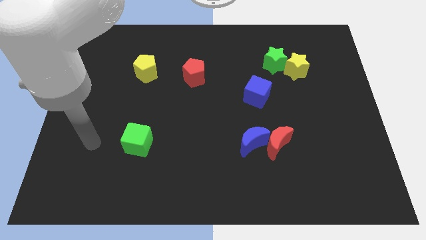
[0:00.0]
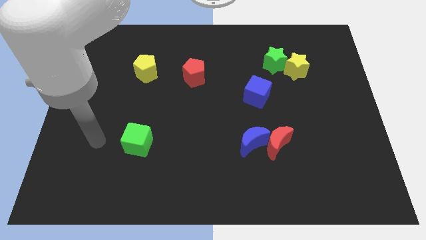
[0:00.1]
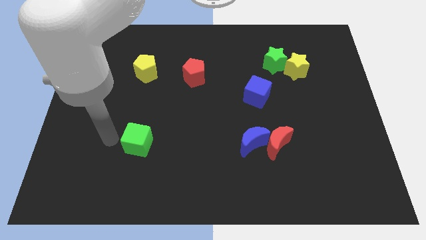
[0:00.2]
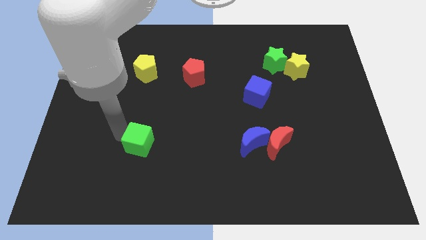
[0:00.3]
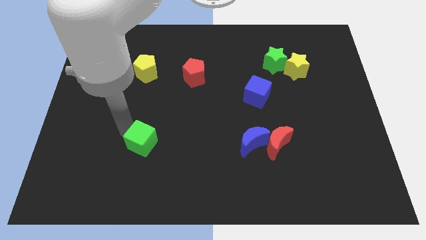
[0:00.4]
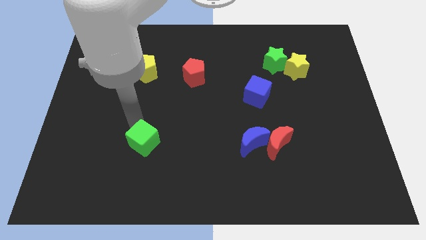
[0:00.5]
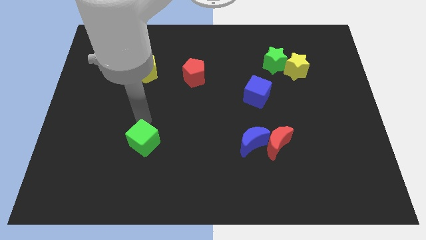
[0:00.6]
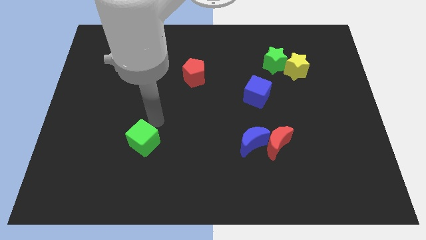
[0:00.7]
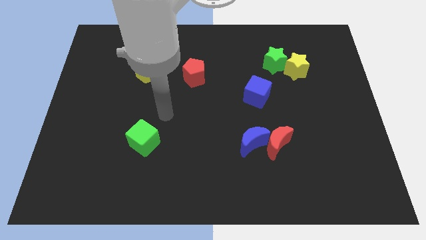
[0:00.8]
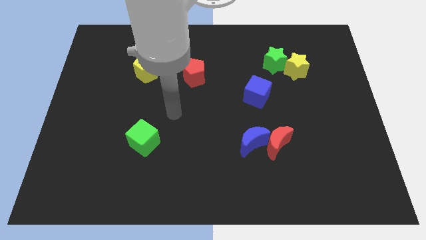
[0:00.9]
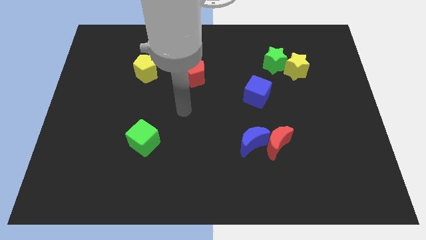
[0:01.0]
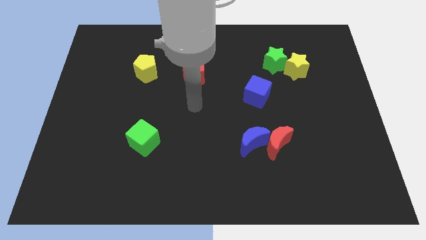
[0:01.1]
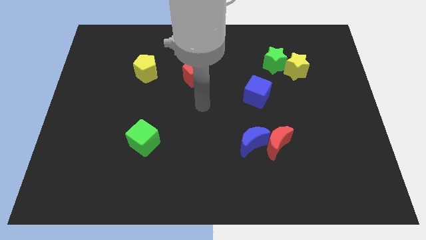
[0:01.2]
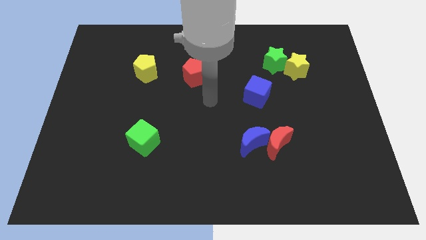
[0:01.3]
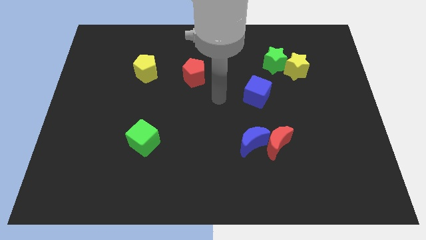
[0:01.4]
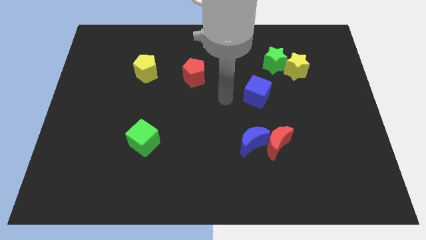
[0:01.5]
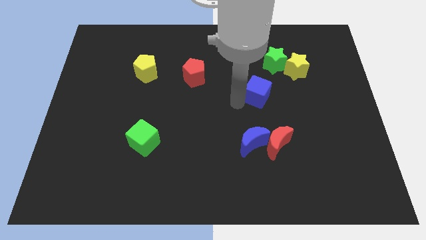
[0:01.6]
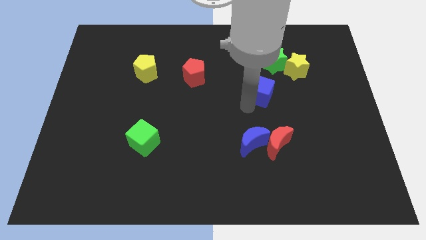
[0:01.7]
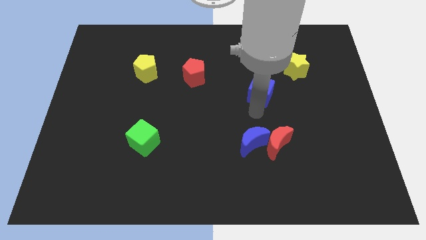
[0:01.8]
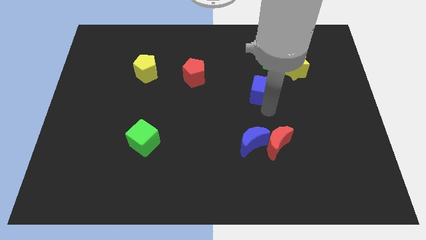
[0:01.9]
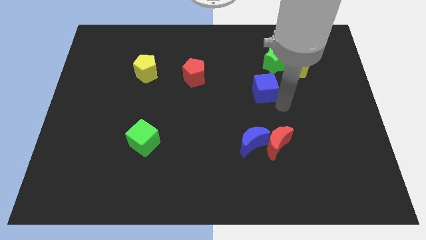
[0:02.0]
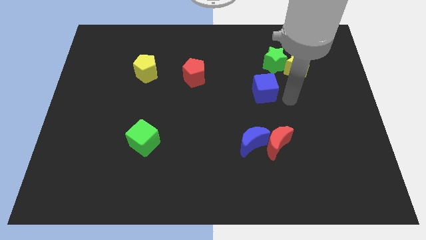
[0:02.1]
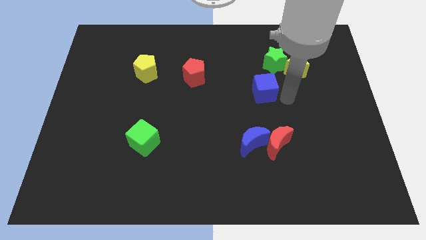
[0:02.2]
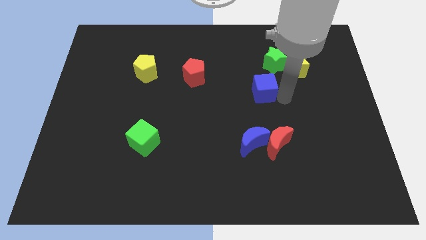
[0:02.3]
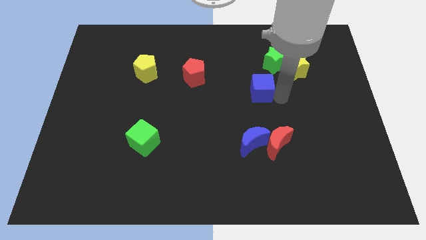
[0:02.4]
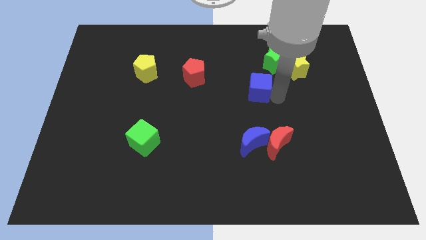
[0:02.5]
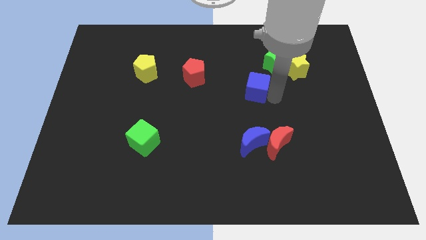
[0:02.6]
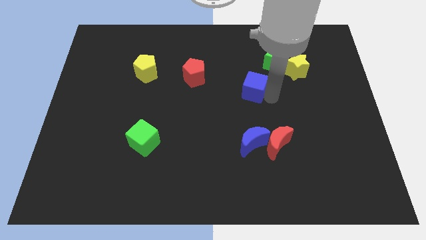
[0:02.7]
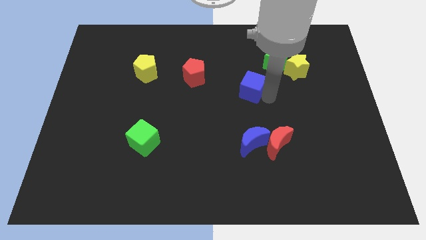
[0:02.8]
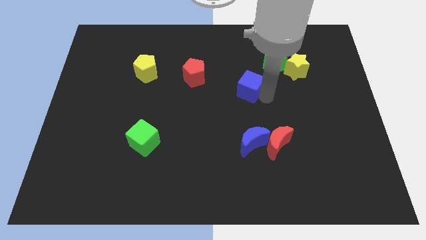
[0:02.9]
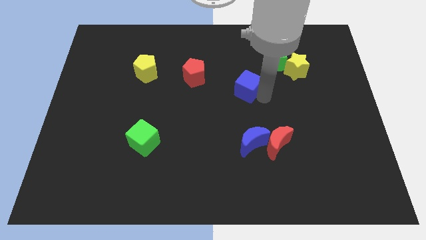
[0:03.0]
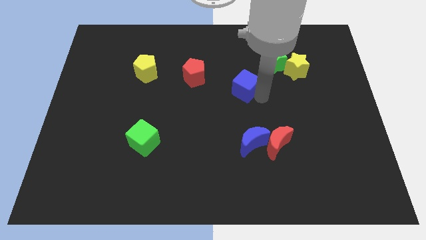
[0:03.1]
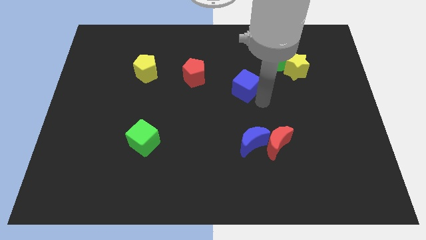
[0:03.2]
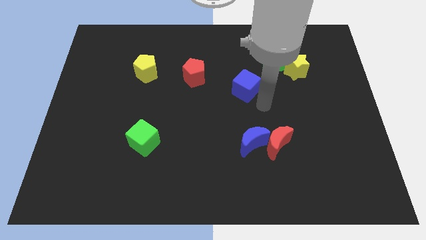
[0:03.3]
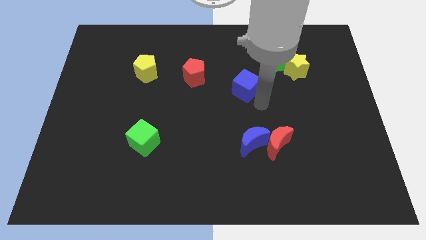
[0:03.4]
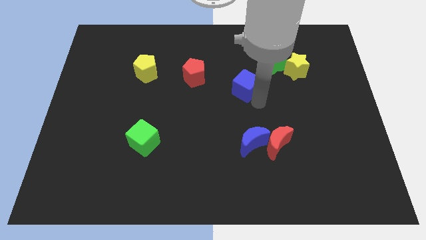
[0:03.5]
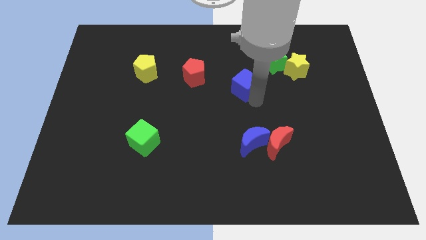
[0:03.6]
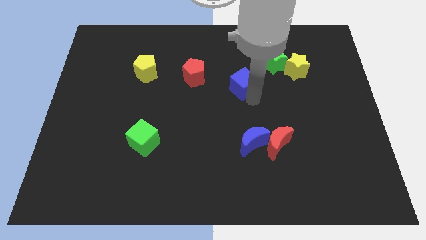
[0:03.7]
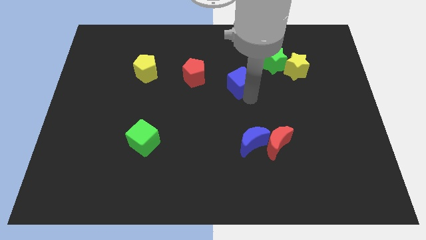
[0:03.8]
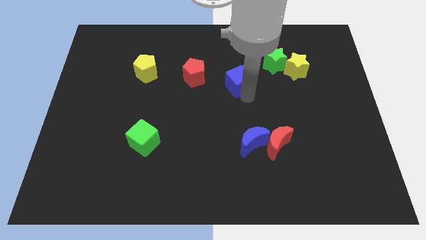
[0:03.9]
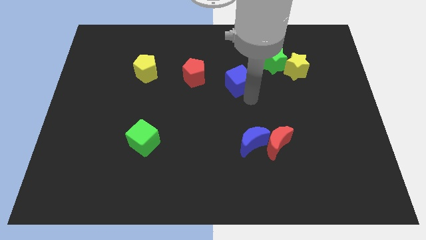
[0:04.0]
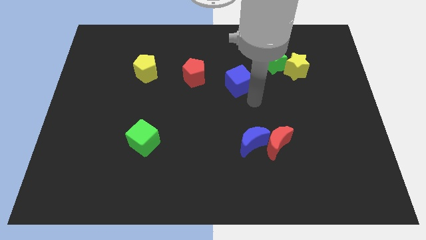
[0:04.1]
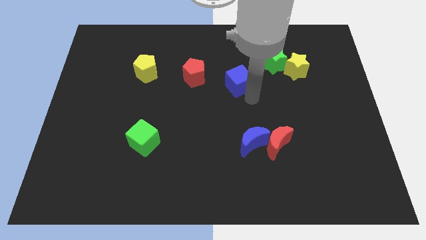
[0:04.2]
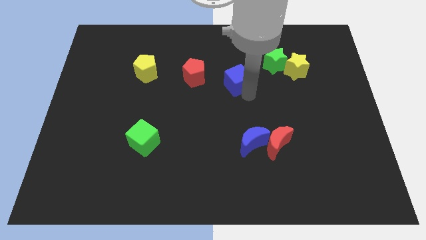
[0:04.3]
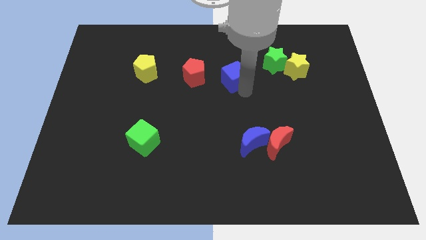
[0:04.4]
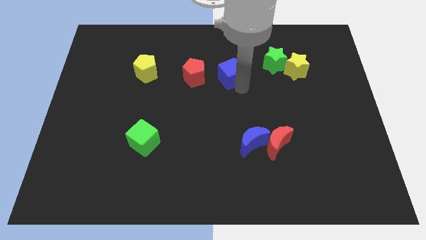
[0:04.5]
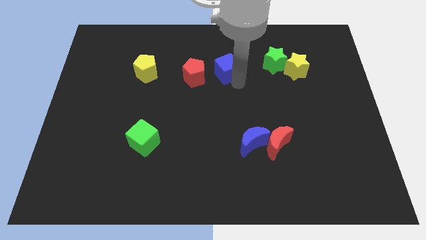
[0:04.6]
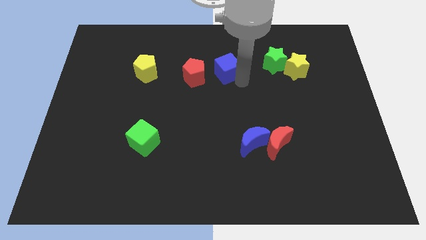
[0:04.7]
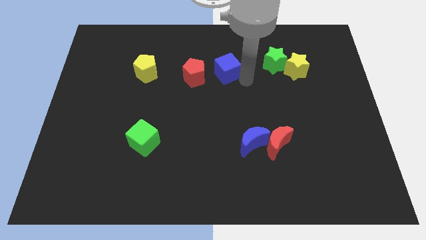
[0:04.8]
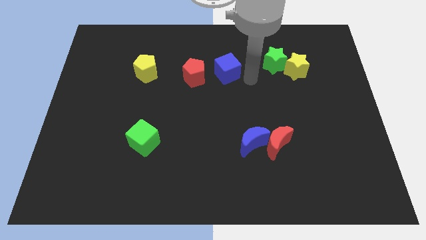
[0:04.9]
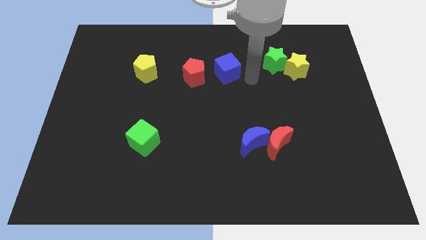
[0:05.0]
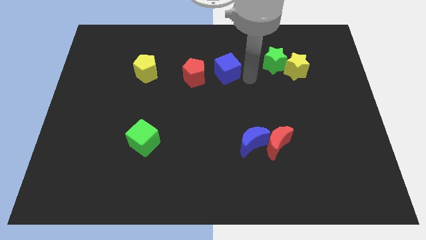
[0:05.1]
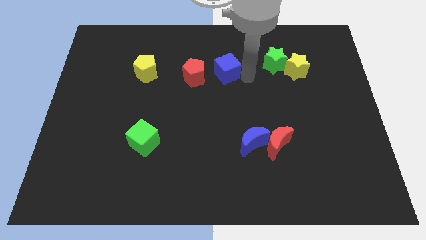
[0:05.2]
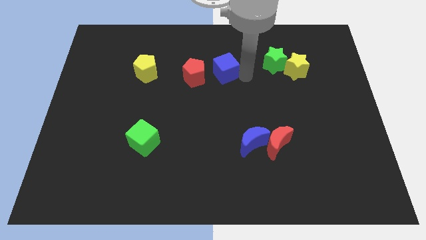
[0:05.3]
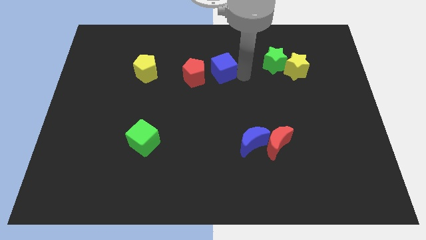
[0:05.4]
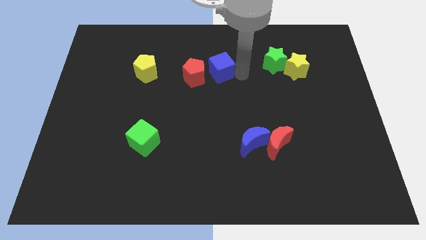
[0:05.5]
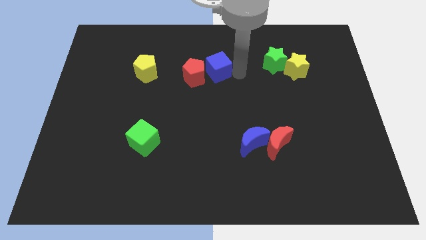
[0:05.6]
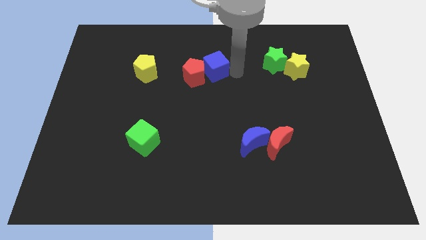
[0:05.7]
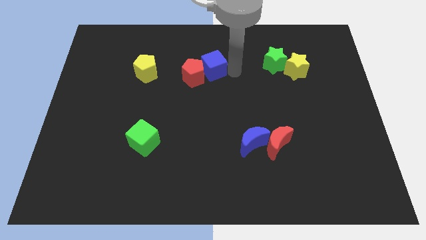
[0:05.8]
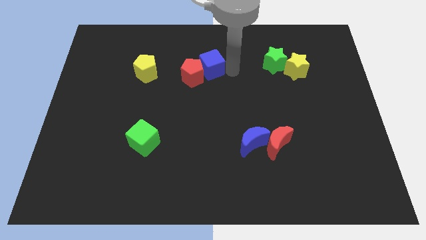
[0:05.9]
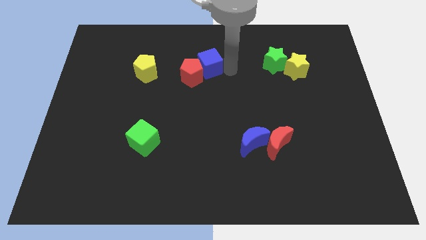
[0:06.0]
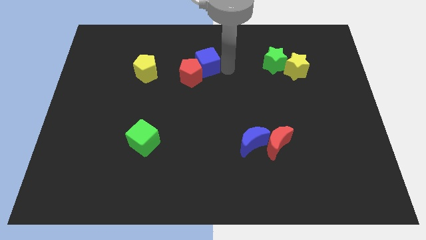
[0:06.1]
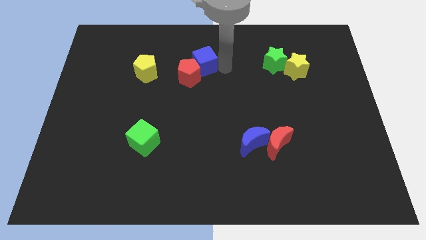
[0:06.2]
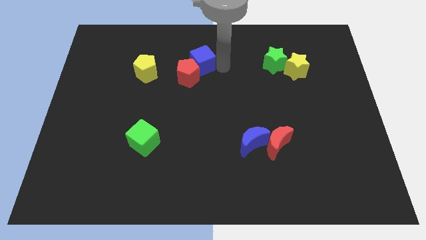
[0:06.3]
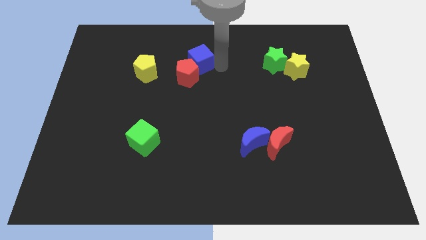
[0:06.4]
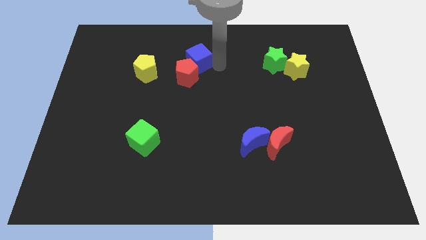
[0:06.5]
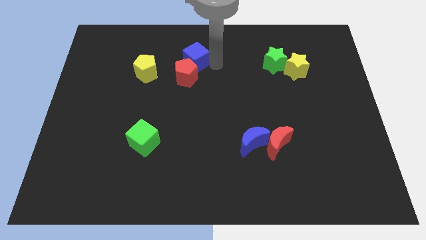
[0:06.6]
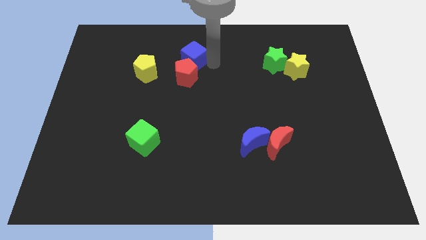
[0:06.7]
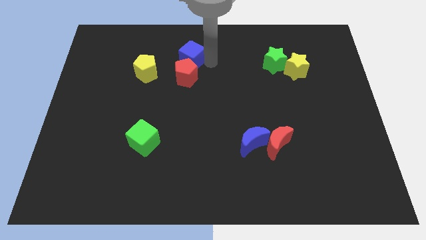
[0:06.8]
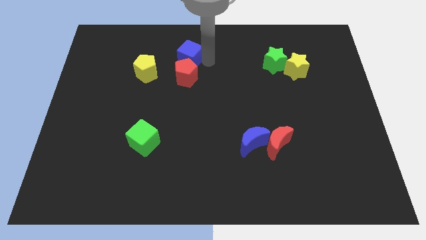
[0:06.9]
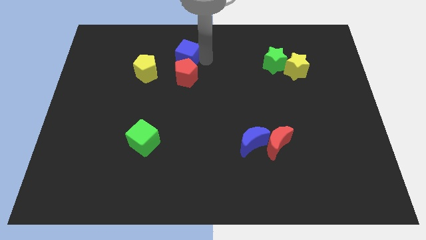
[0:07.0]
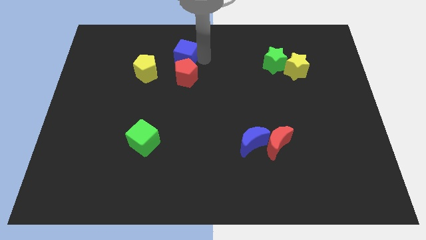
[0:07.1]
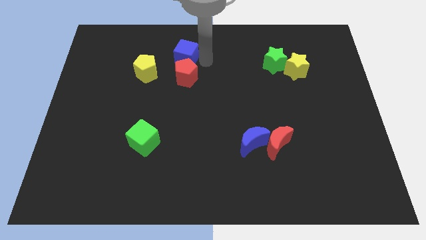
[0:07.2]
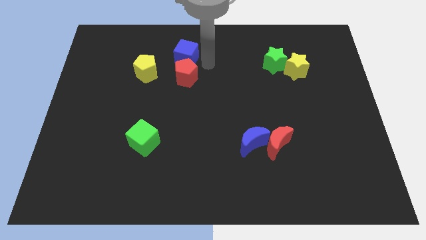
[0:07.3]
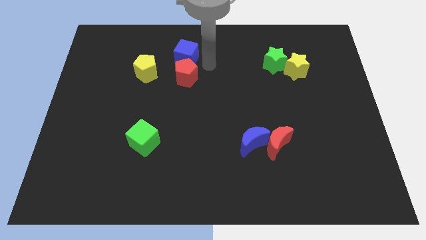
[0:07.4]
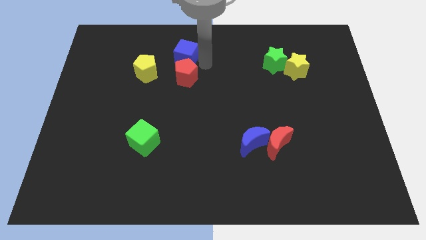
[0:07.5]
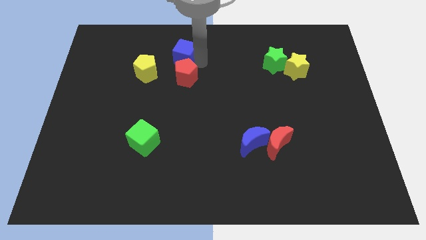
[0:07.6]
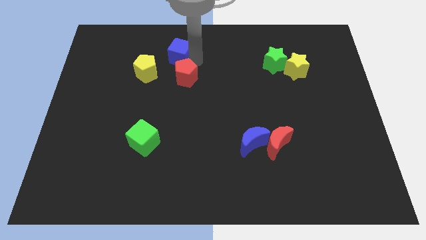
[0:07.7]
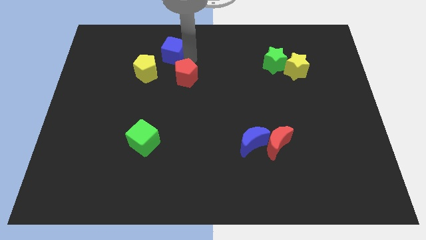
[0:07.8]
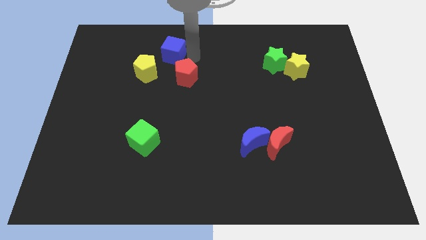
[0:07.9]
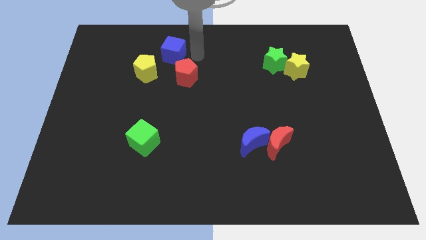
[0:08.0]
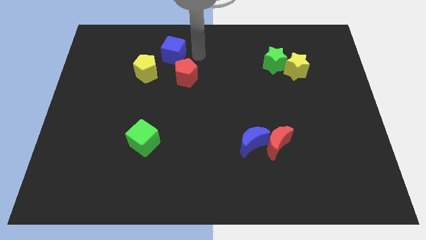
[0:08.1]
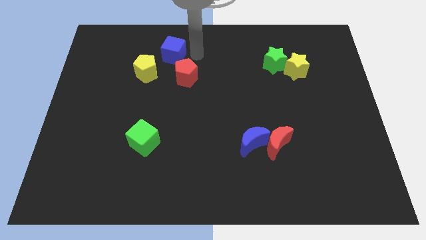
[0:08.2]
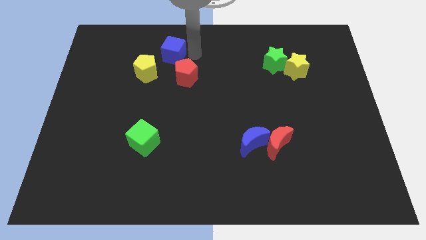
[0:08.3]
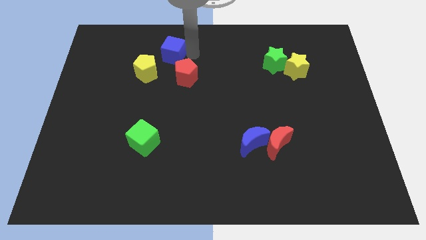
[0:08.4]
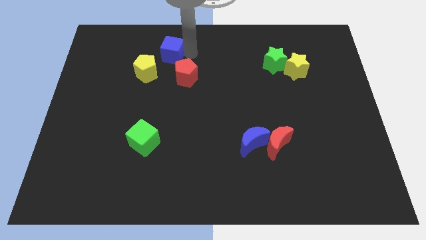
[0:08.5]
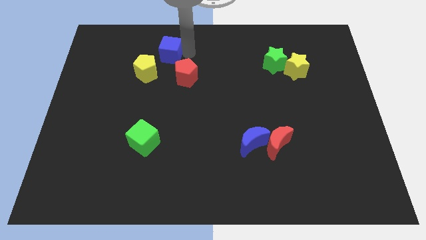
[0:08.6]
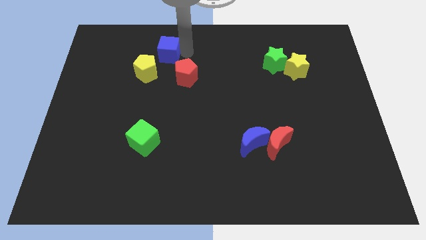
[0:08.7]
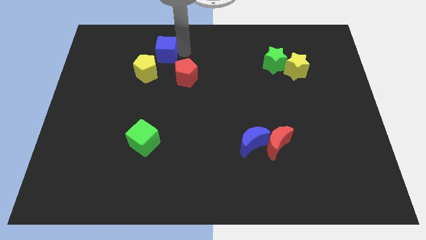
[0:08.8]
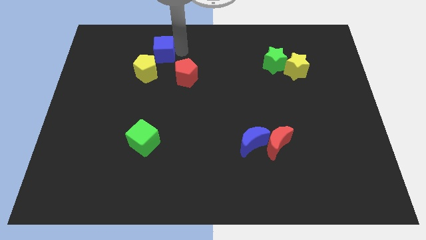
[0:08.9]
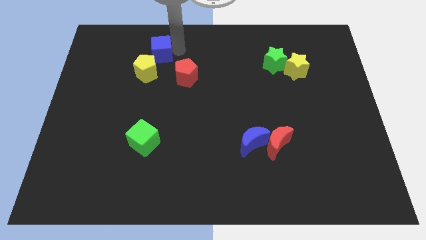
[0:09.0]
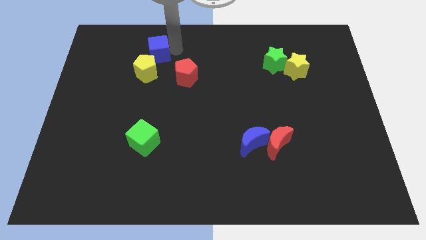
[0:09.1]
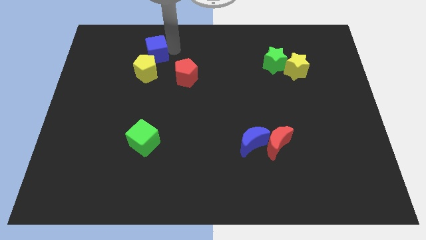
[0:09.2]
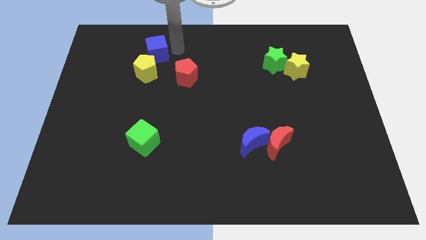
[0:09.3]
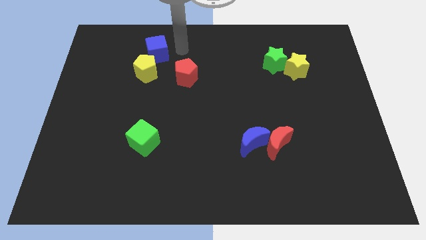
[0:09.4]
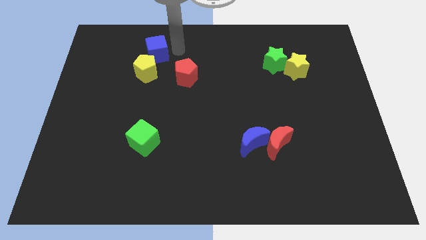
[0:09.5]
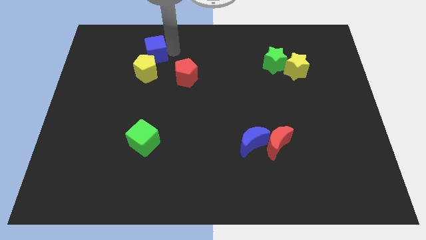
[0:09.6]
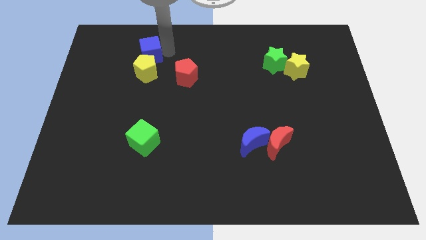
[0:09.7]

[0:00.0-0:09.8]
push the blue cube to the top left of the yellow pentagon
